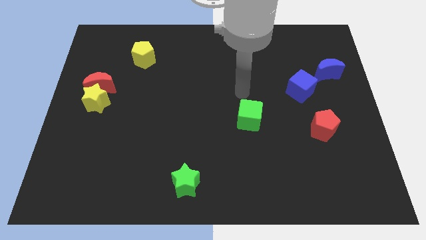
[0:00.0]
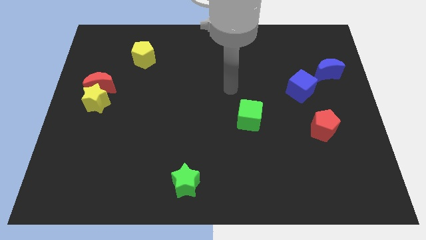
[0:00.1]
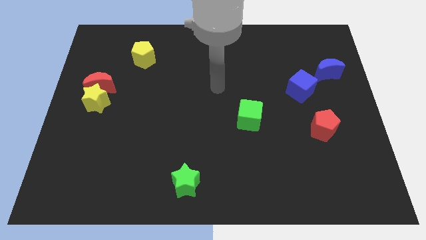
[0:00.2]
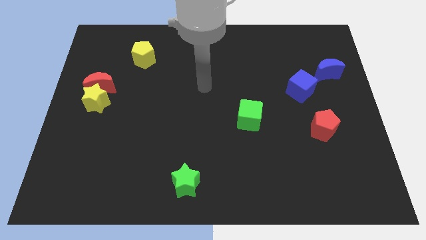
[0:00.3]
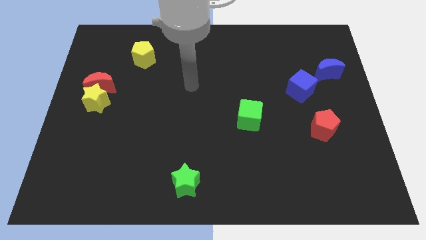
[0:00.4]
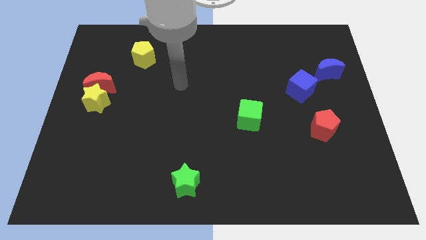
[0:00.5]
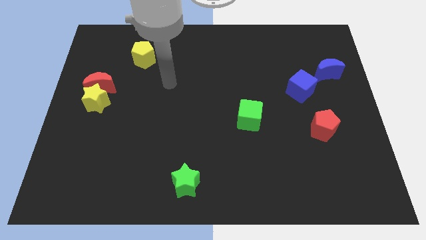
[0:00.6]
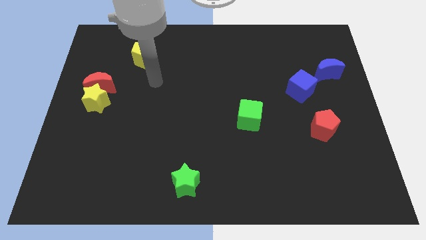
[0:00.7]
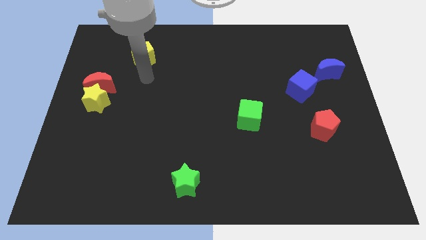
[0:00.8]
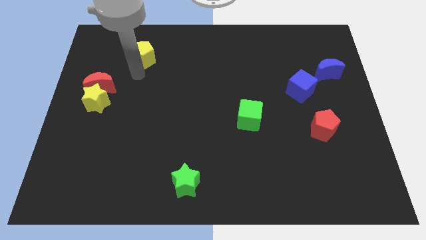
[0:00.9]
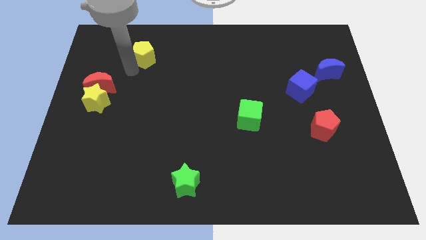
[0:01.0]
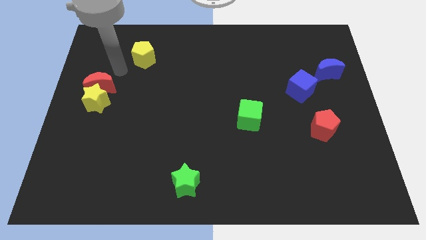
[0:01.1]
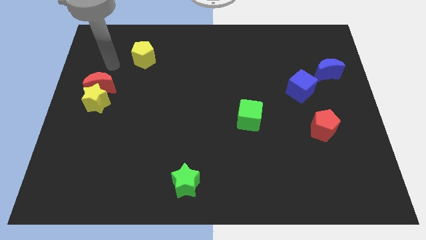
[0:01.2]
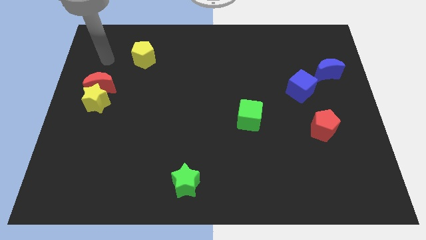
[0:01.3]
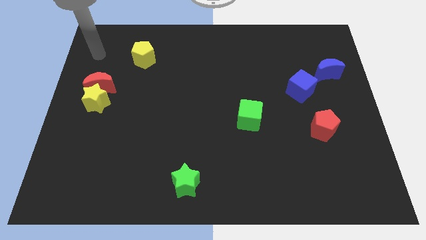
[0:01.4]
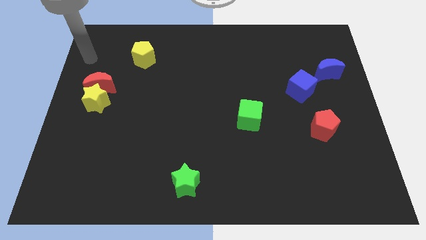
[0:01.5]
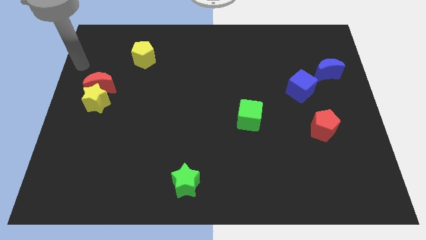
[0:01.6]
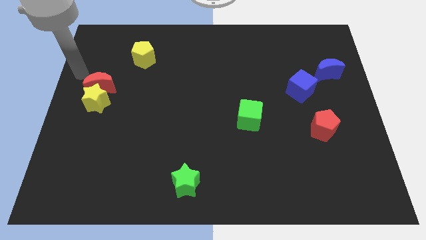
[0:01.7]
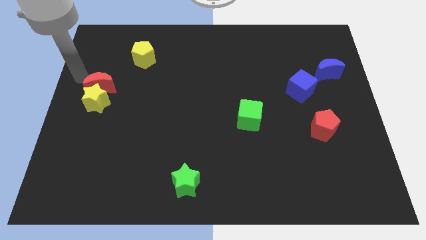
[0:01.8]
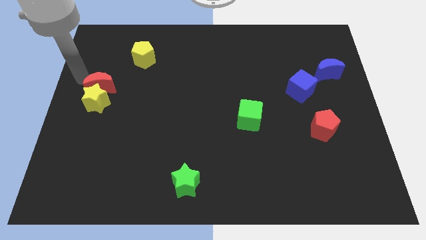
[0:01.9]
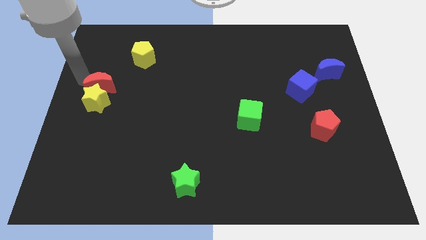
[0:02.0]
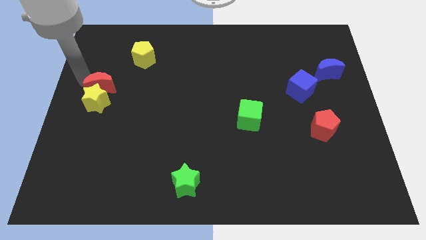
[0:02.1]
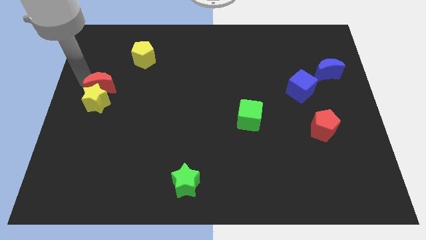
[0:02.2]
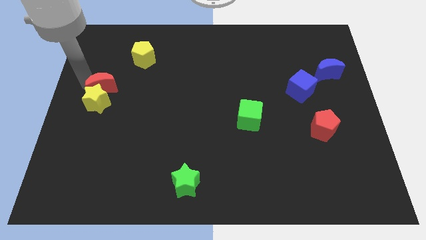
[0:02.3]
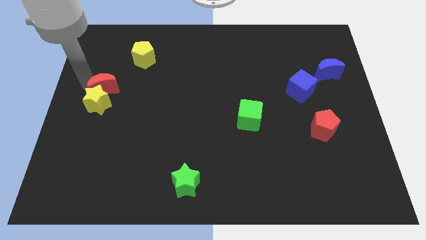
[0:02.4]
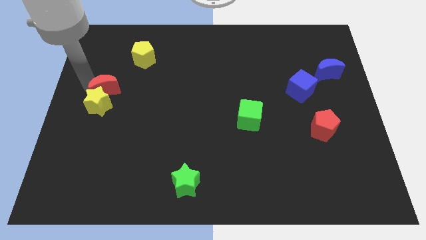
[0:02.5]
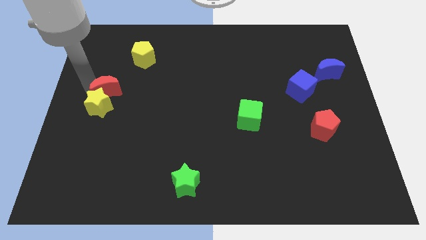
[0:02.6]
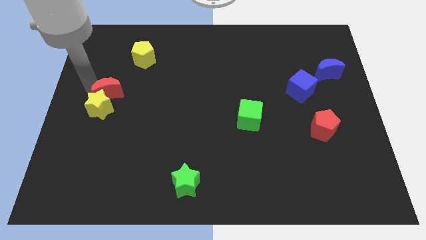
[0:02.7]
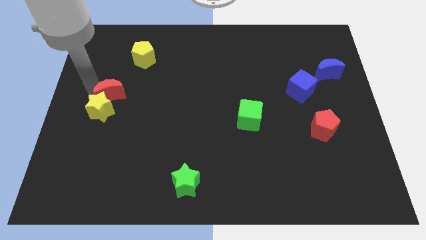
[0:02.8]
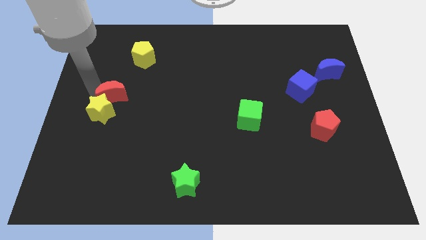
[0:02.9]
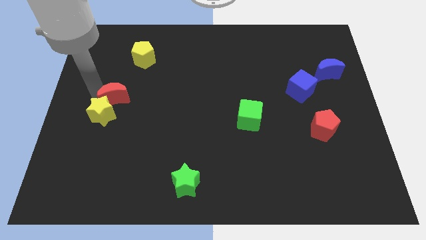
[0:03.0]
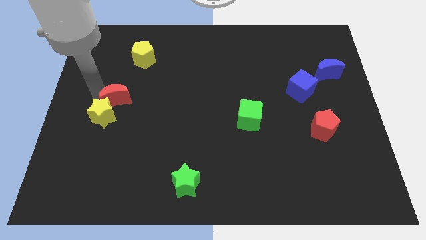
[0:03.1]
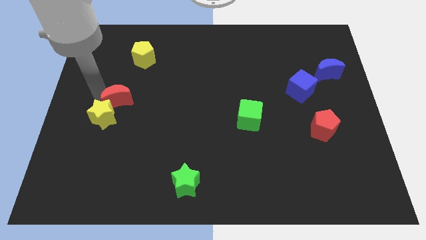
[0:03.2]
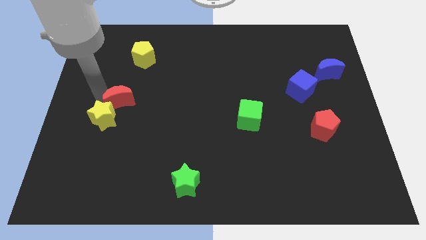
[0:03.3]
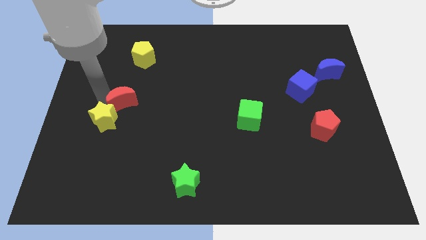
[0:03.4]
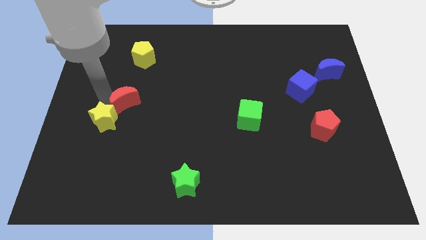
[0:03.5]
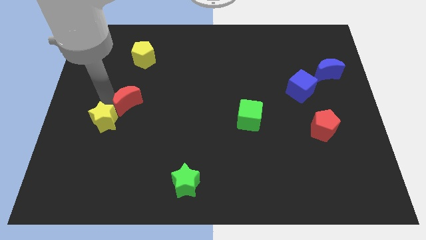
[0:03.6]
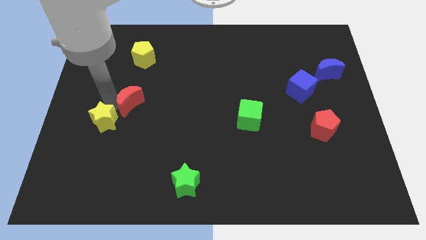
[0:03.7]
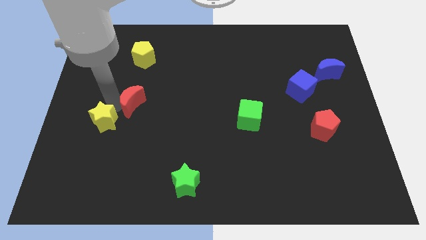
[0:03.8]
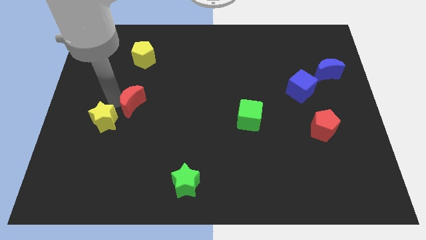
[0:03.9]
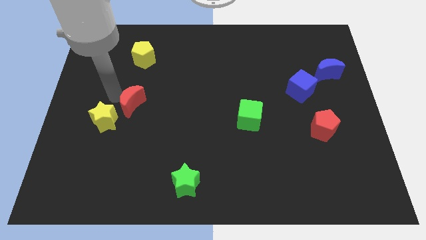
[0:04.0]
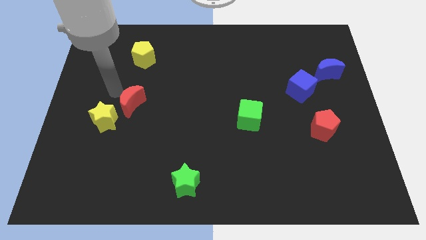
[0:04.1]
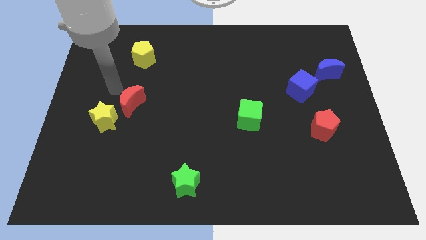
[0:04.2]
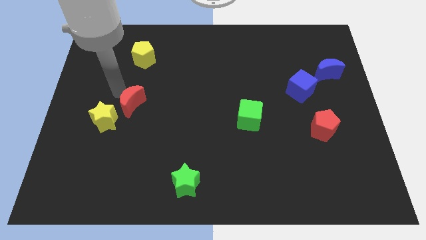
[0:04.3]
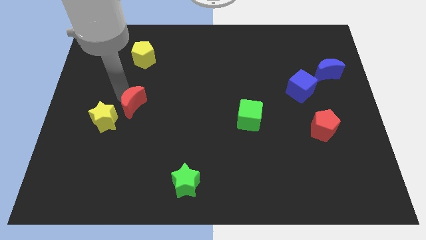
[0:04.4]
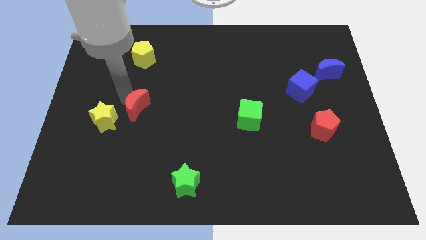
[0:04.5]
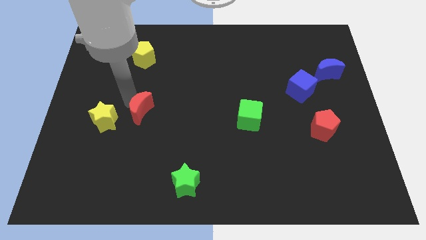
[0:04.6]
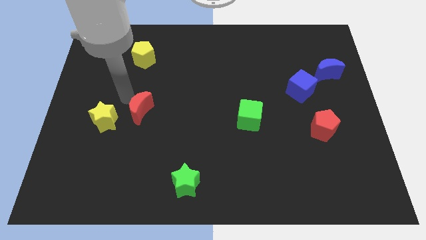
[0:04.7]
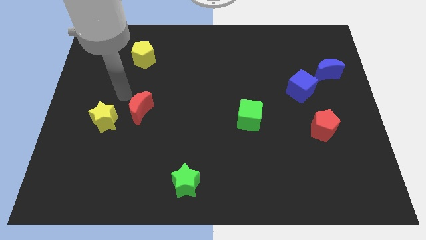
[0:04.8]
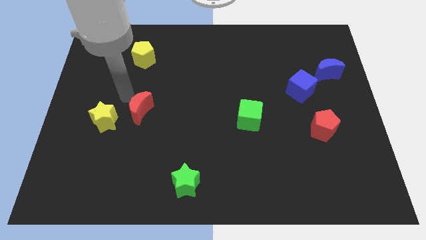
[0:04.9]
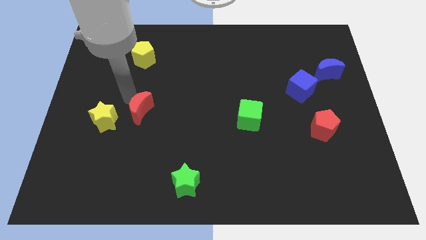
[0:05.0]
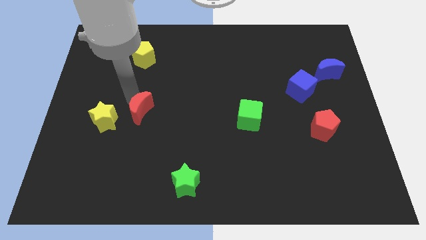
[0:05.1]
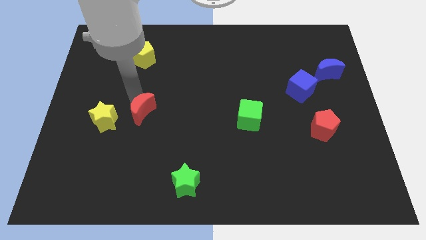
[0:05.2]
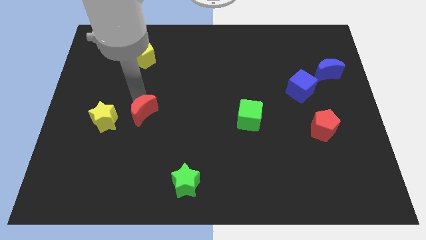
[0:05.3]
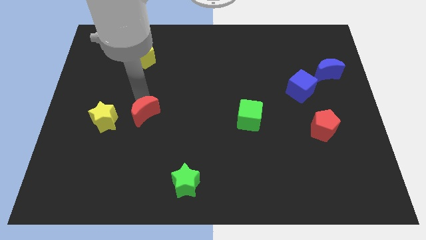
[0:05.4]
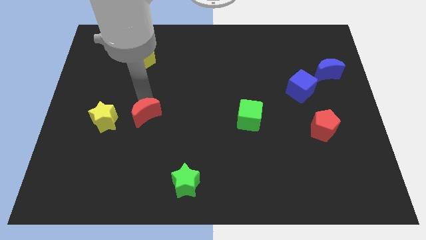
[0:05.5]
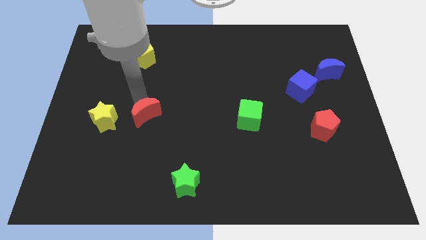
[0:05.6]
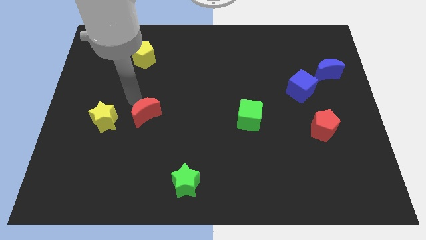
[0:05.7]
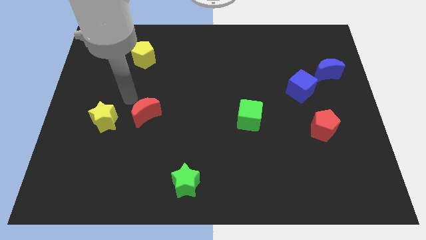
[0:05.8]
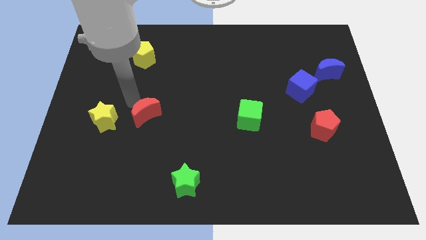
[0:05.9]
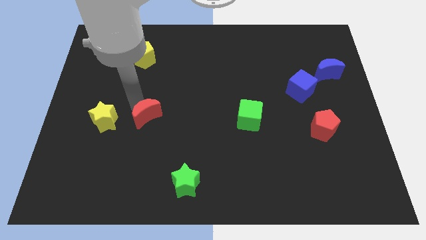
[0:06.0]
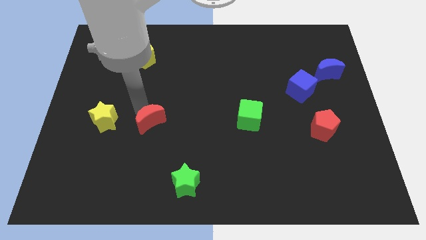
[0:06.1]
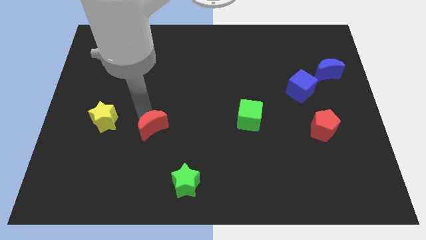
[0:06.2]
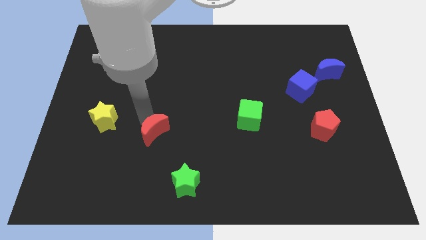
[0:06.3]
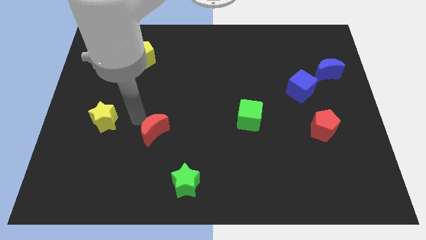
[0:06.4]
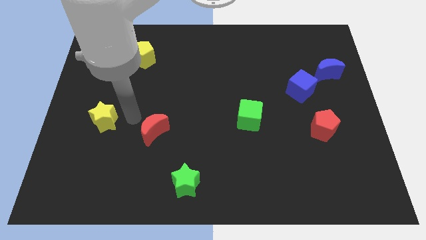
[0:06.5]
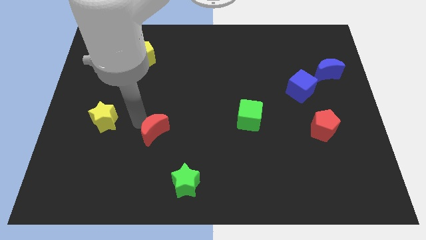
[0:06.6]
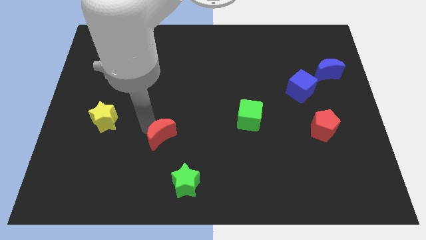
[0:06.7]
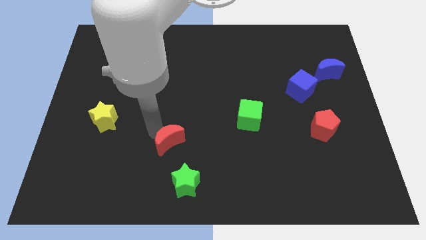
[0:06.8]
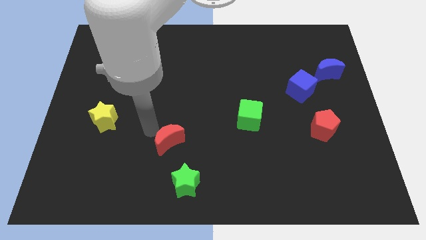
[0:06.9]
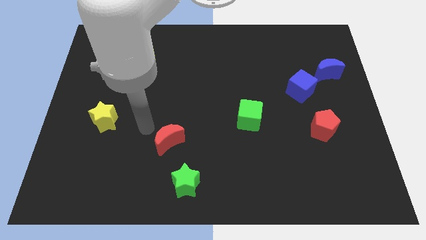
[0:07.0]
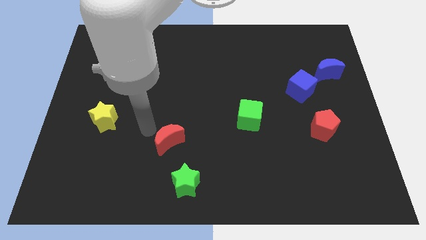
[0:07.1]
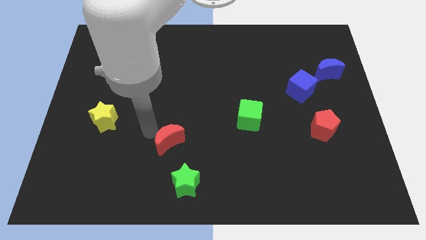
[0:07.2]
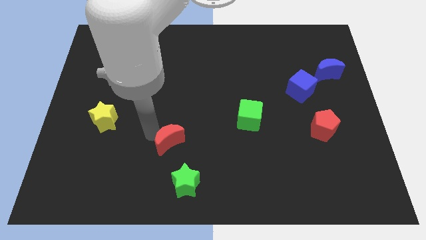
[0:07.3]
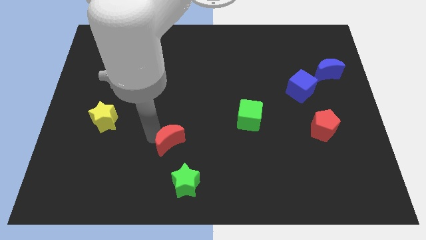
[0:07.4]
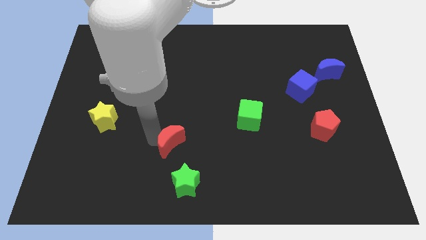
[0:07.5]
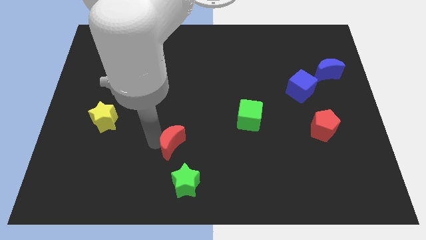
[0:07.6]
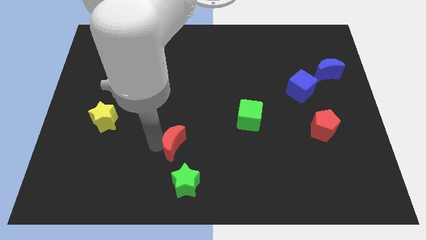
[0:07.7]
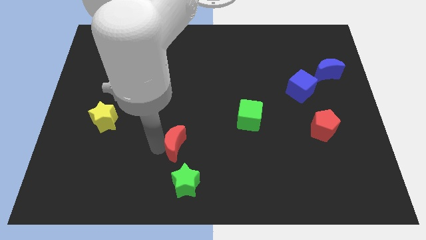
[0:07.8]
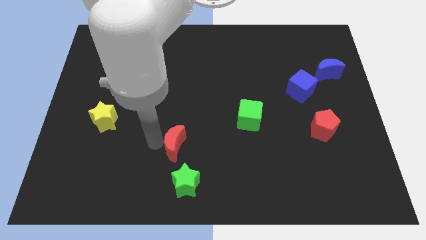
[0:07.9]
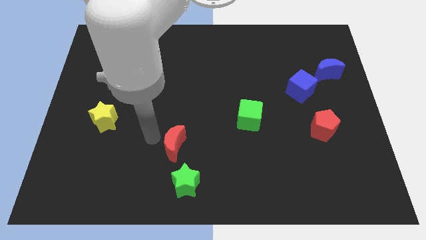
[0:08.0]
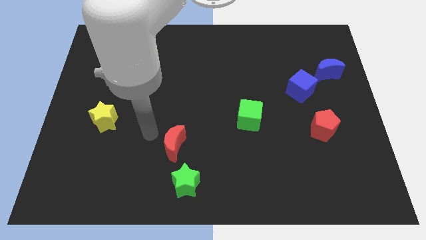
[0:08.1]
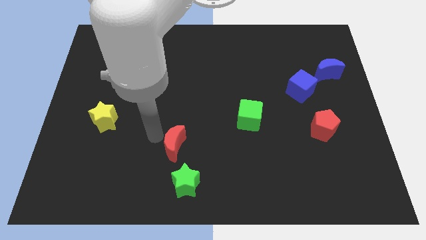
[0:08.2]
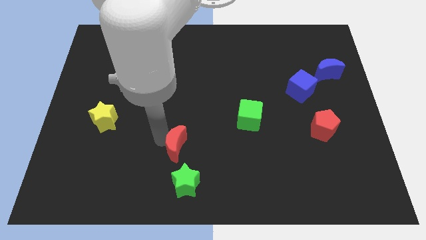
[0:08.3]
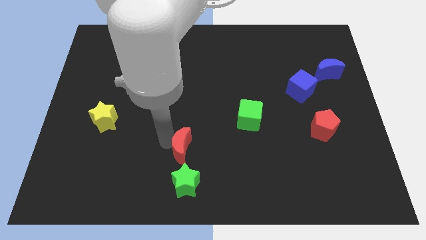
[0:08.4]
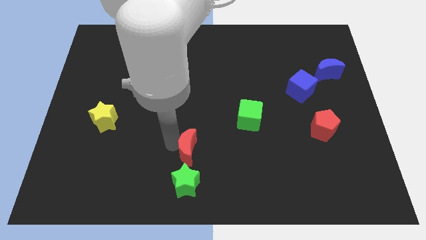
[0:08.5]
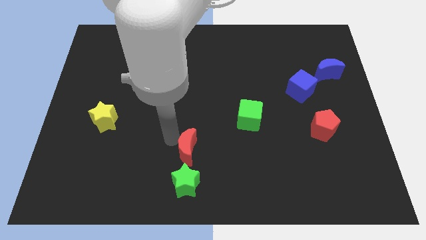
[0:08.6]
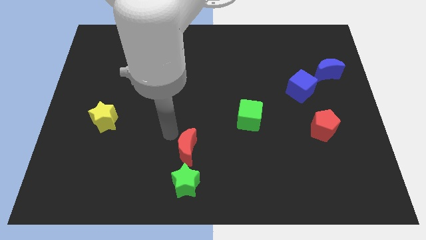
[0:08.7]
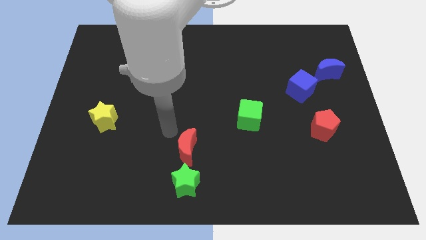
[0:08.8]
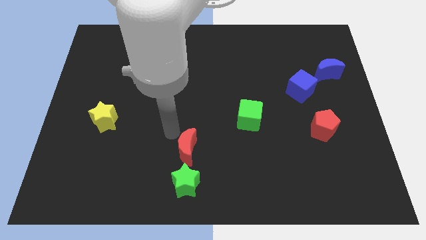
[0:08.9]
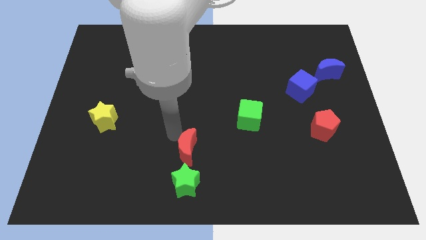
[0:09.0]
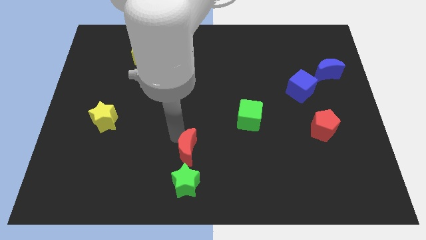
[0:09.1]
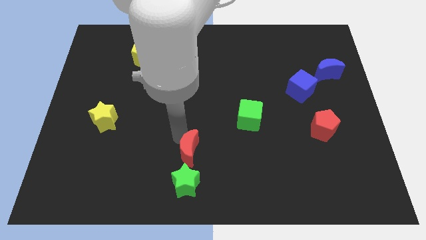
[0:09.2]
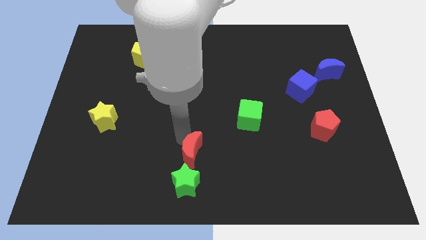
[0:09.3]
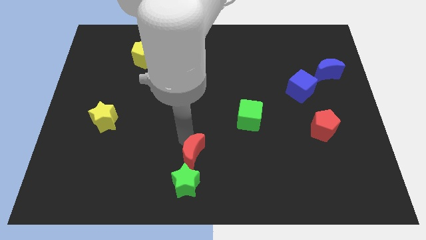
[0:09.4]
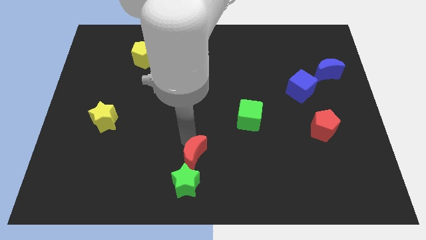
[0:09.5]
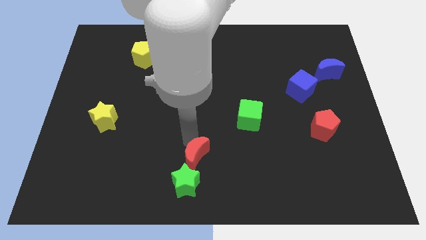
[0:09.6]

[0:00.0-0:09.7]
slide the red moon to the bottom side
